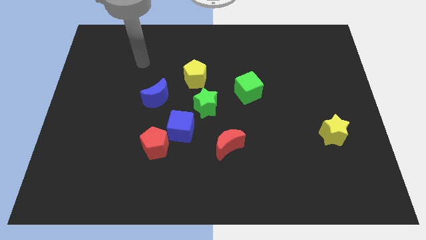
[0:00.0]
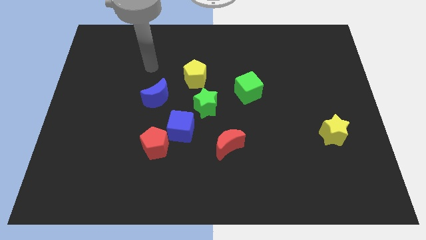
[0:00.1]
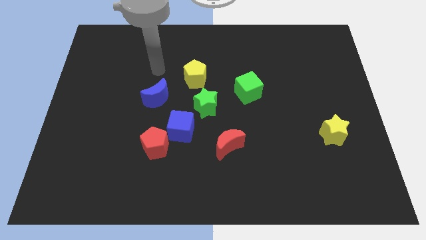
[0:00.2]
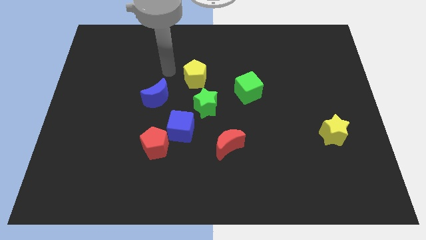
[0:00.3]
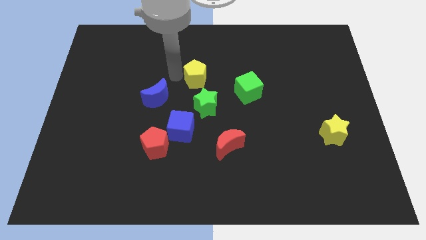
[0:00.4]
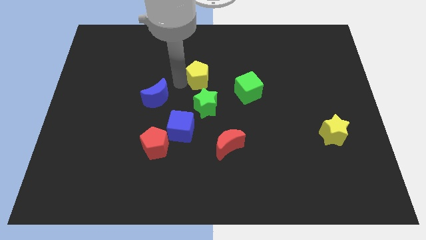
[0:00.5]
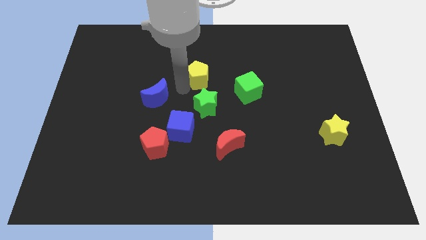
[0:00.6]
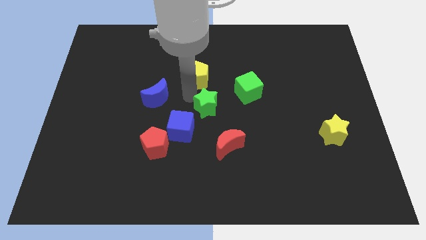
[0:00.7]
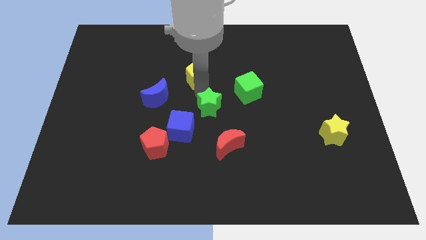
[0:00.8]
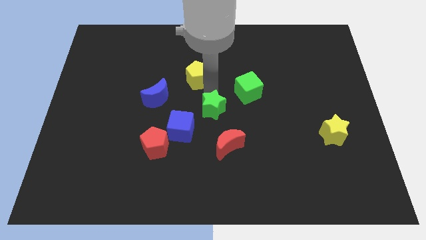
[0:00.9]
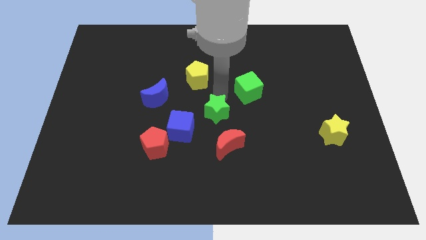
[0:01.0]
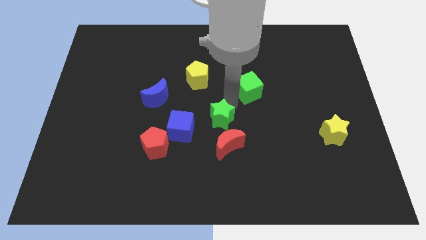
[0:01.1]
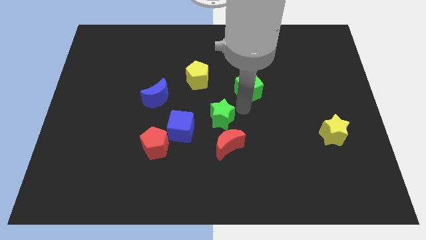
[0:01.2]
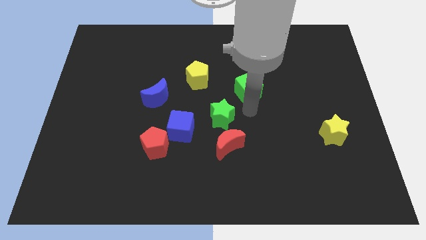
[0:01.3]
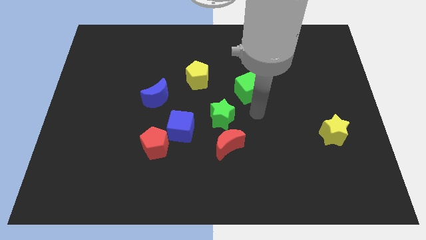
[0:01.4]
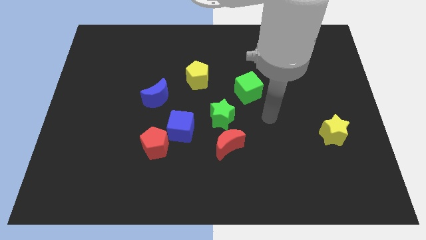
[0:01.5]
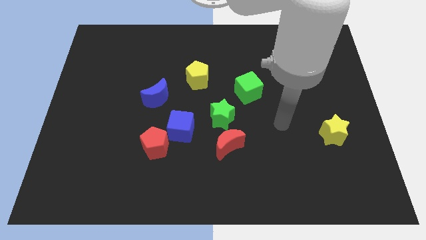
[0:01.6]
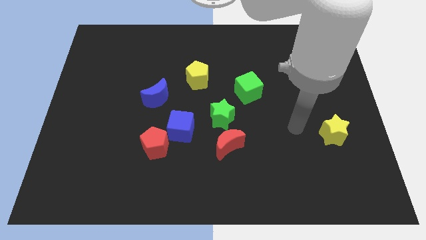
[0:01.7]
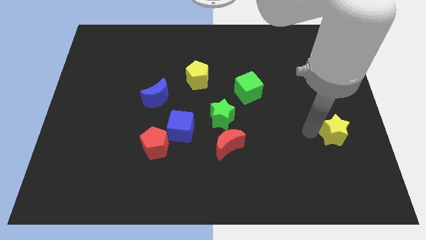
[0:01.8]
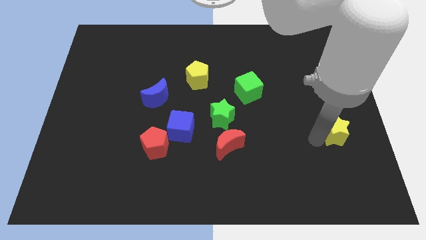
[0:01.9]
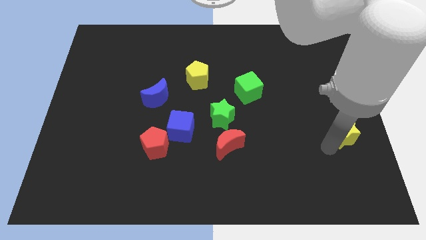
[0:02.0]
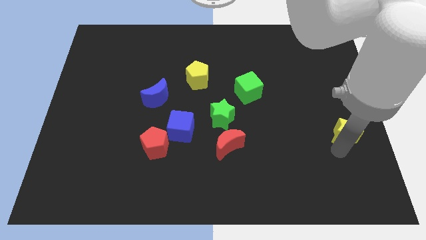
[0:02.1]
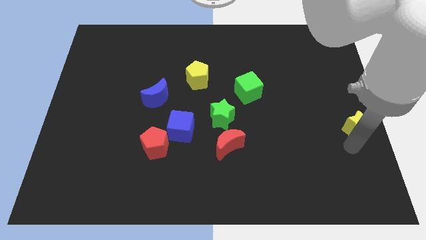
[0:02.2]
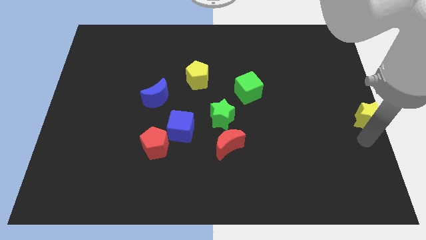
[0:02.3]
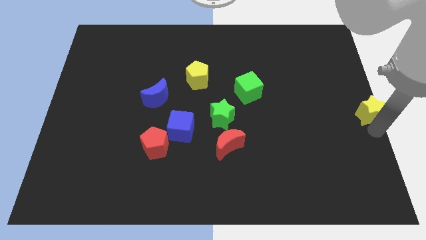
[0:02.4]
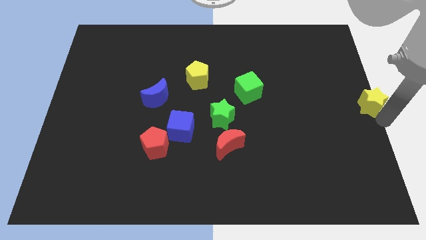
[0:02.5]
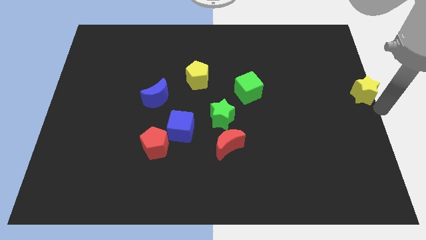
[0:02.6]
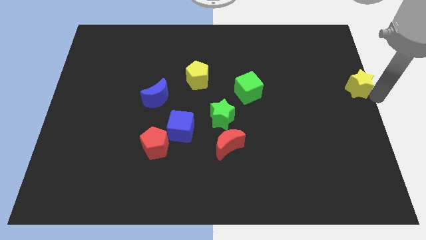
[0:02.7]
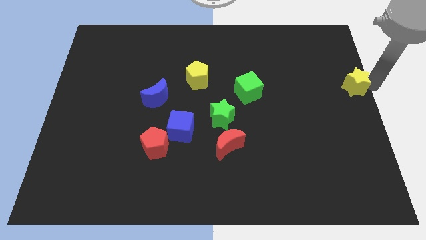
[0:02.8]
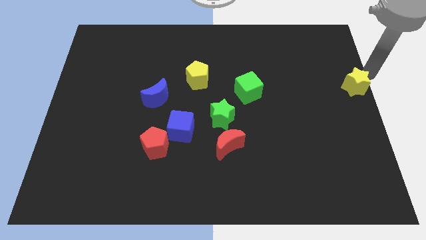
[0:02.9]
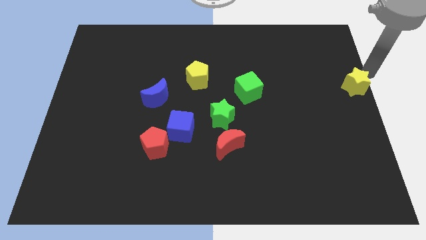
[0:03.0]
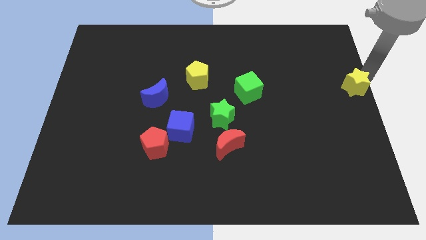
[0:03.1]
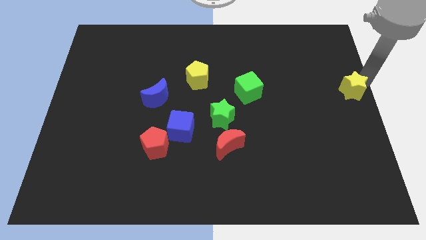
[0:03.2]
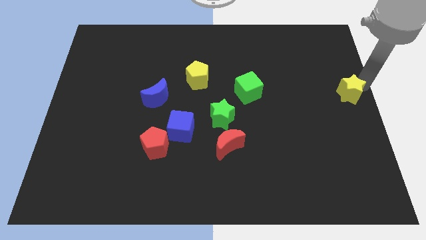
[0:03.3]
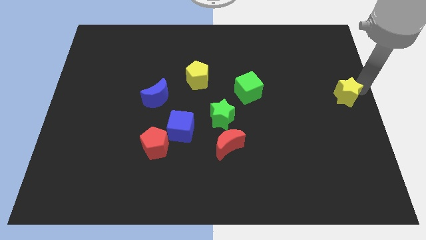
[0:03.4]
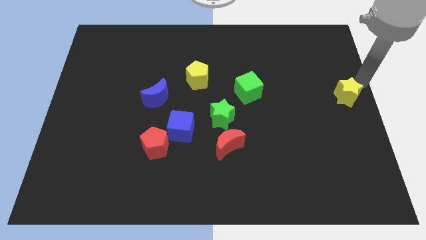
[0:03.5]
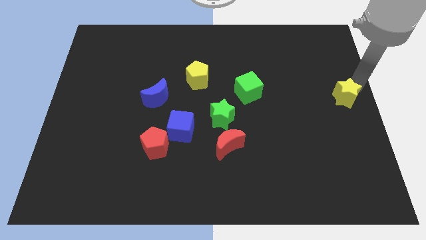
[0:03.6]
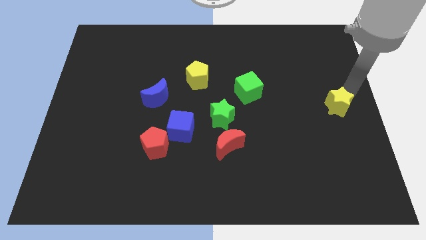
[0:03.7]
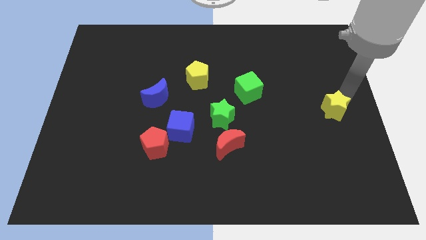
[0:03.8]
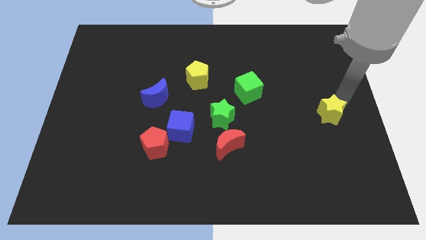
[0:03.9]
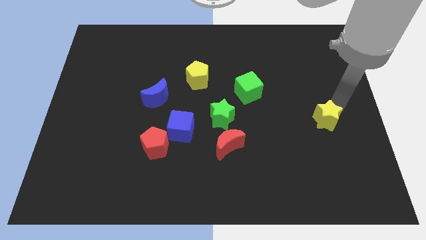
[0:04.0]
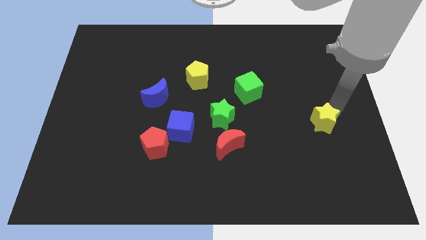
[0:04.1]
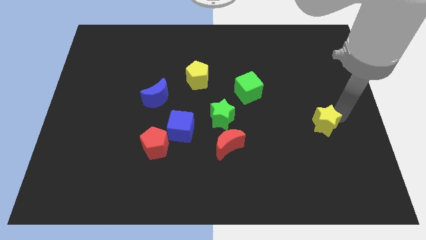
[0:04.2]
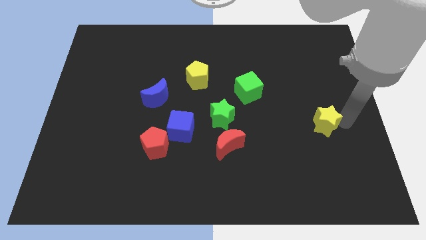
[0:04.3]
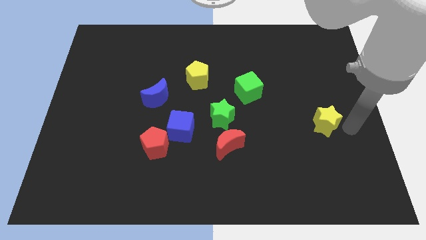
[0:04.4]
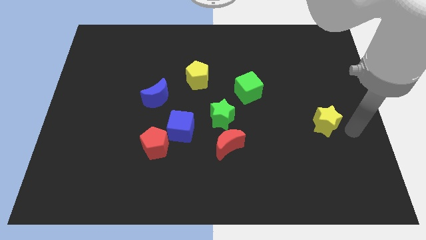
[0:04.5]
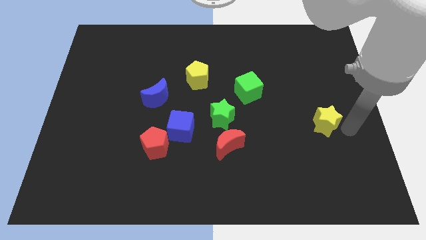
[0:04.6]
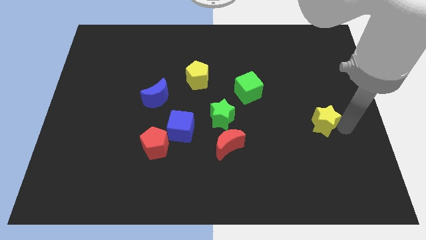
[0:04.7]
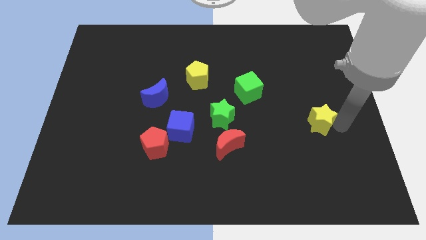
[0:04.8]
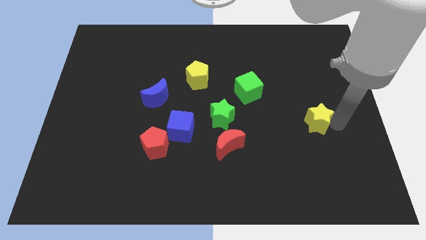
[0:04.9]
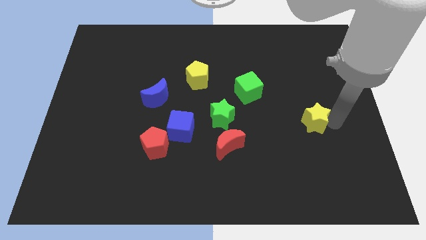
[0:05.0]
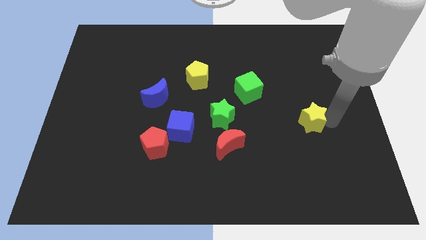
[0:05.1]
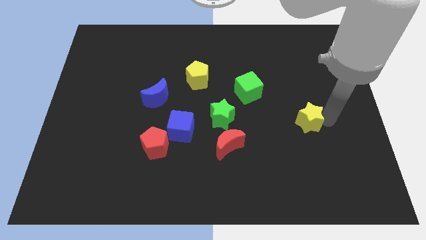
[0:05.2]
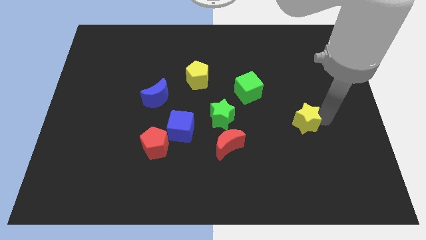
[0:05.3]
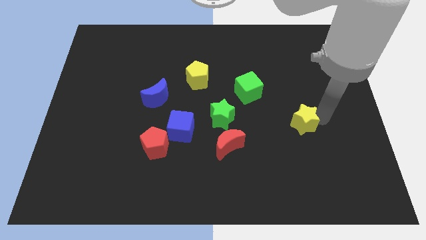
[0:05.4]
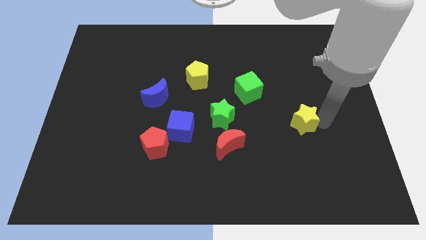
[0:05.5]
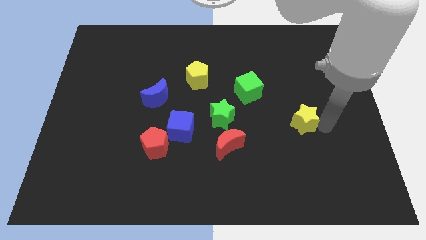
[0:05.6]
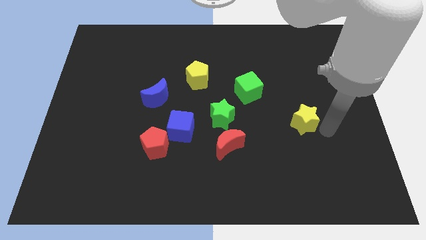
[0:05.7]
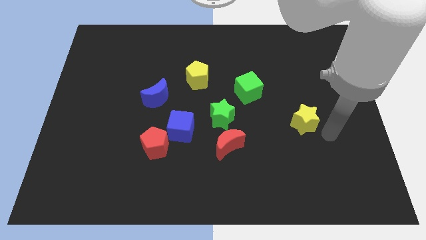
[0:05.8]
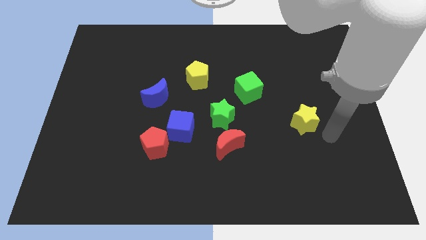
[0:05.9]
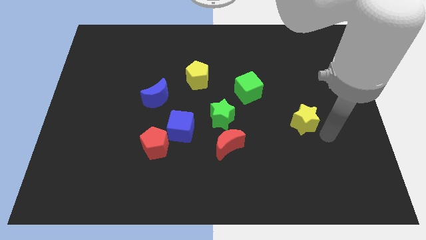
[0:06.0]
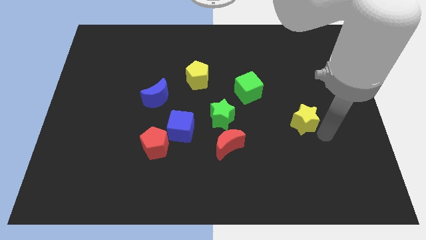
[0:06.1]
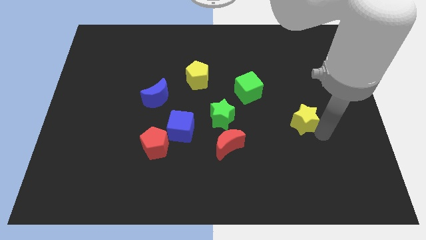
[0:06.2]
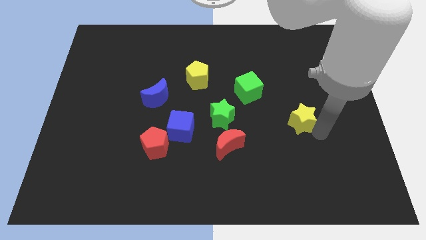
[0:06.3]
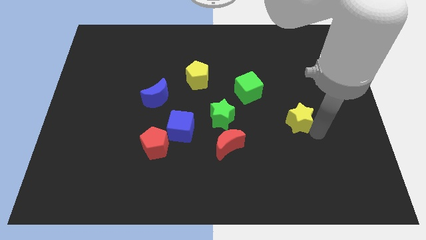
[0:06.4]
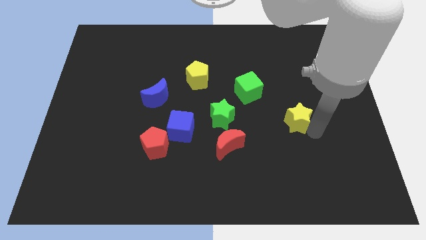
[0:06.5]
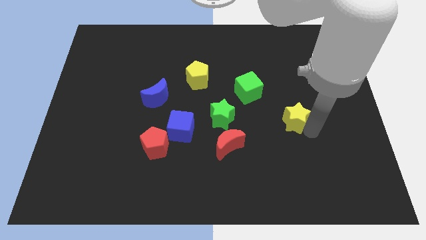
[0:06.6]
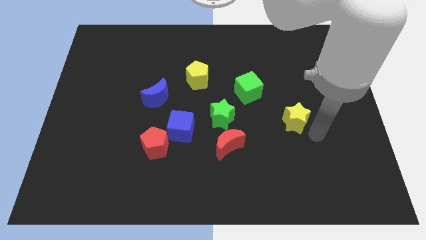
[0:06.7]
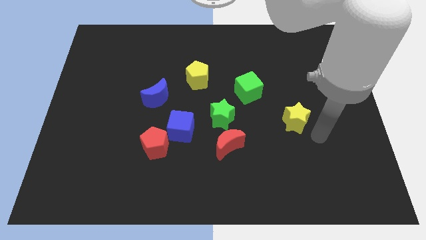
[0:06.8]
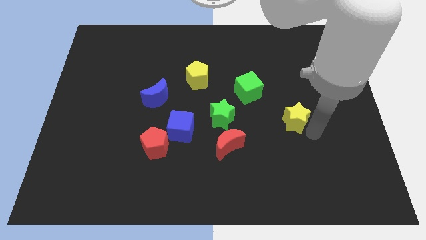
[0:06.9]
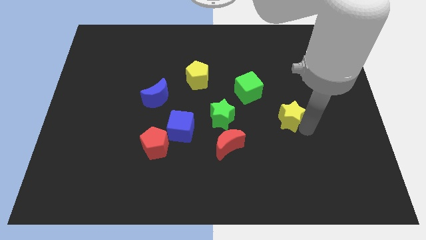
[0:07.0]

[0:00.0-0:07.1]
slide the yellow star diagonally down and to the right of the green cube
